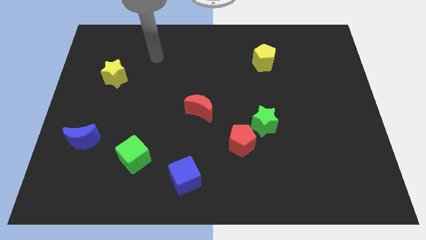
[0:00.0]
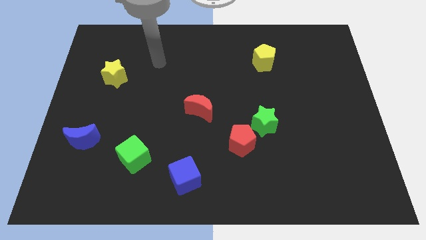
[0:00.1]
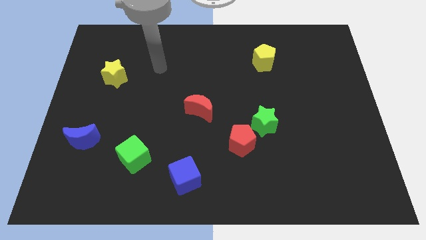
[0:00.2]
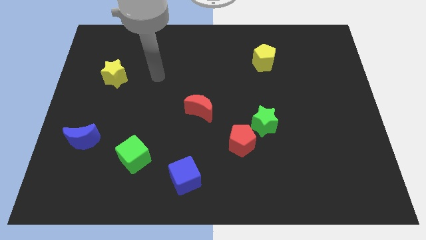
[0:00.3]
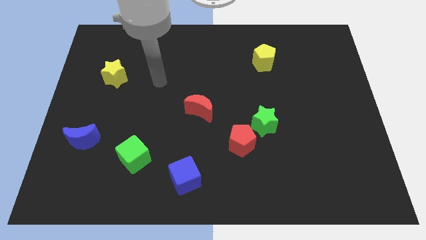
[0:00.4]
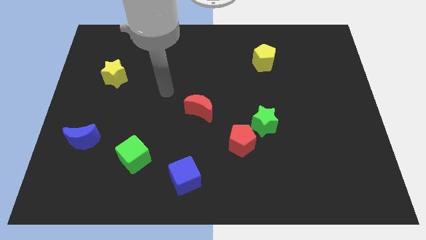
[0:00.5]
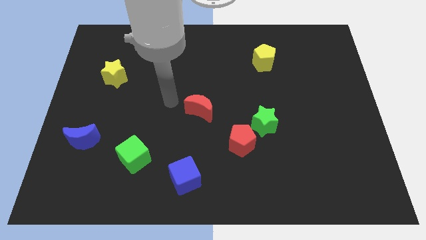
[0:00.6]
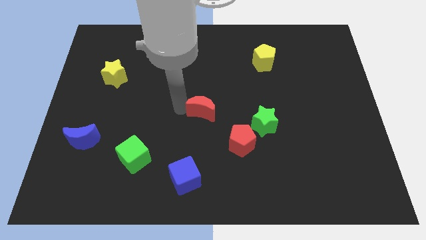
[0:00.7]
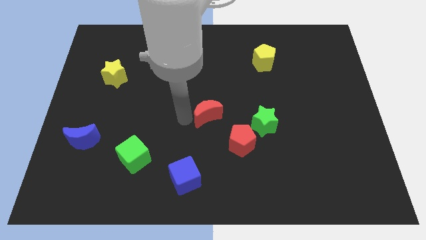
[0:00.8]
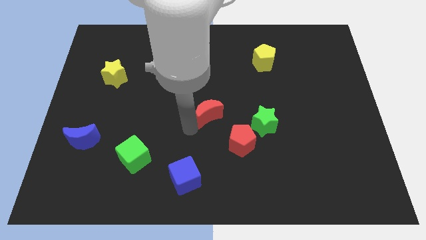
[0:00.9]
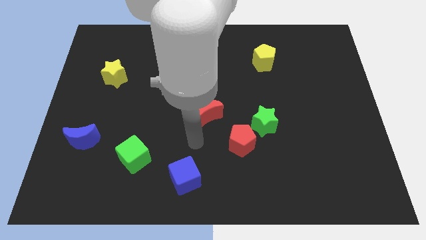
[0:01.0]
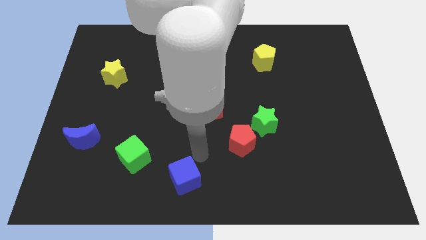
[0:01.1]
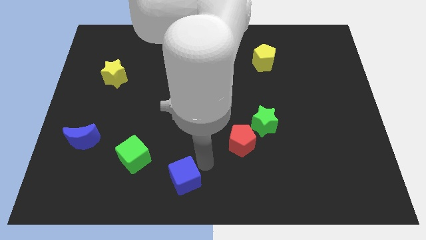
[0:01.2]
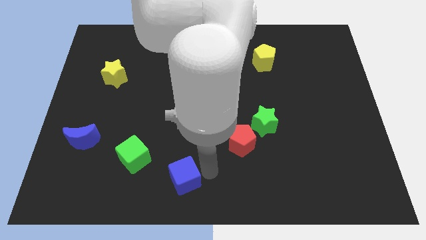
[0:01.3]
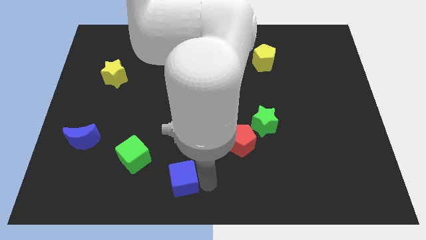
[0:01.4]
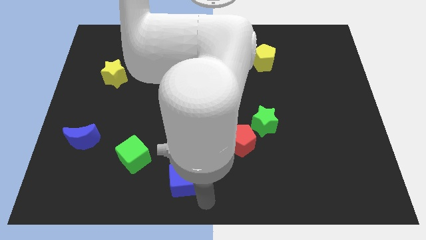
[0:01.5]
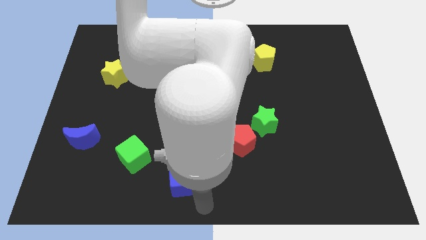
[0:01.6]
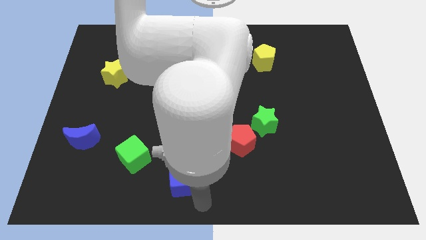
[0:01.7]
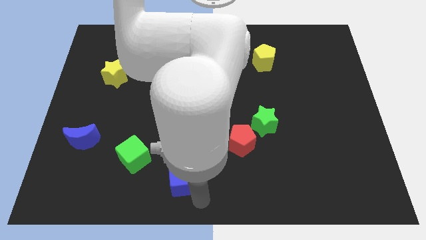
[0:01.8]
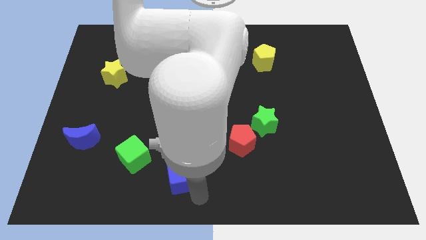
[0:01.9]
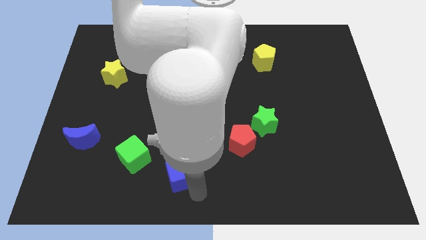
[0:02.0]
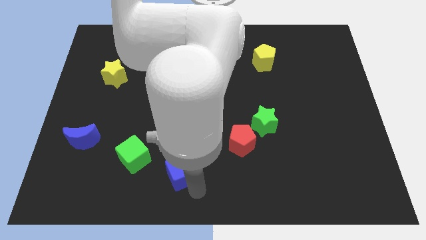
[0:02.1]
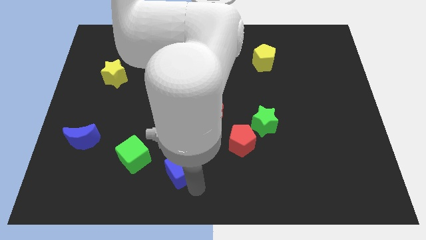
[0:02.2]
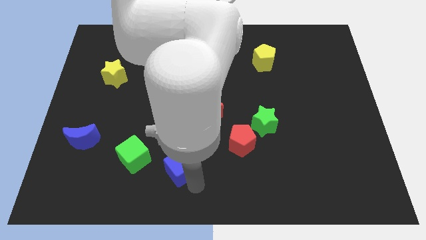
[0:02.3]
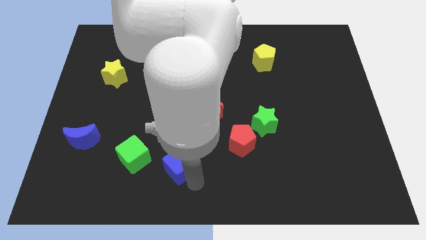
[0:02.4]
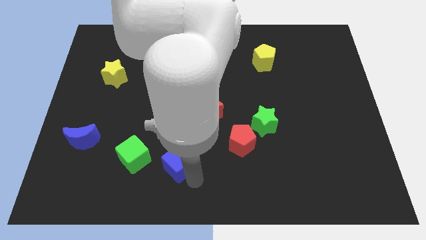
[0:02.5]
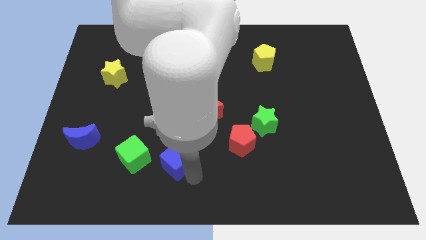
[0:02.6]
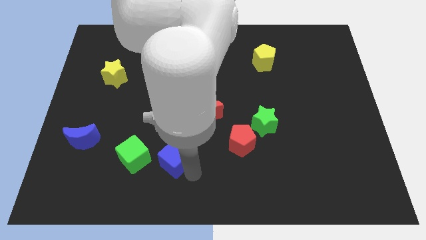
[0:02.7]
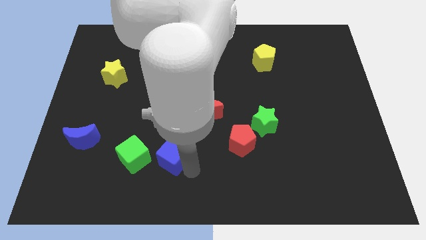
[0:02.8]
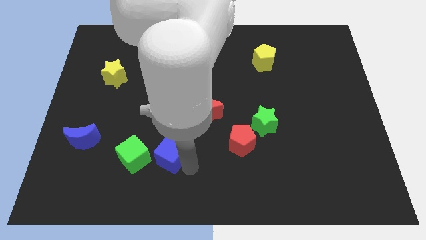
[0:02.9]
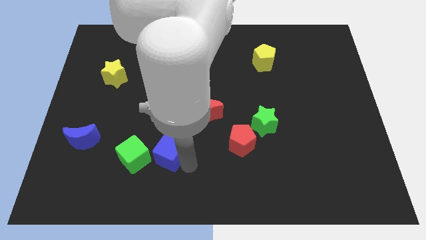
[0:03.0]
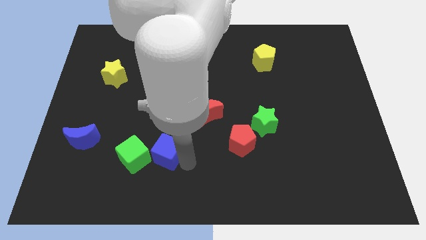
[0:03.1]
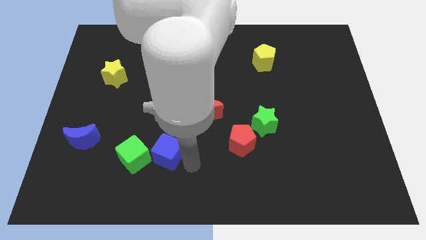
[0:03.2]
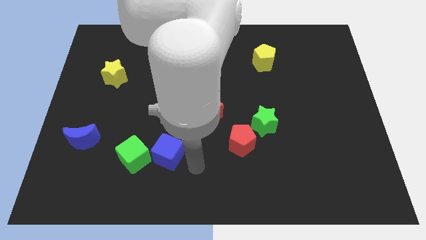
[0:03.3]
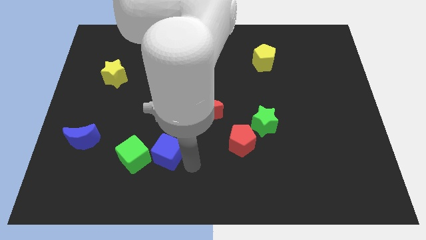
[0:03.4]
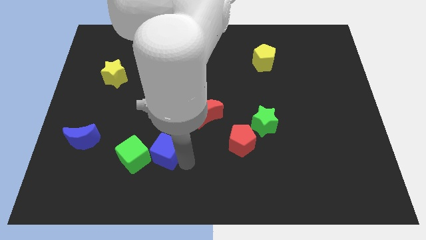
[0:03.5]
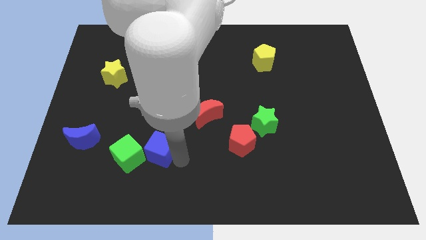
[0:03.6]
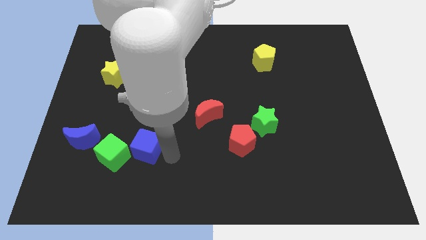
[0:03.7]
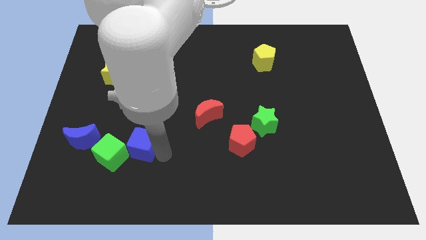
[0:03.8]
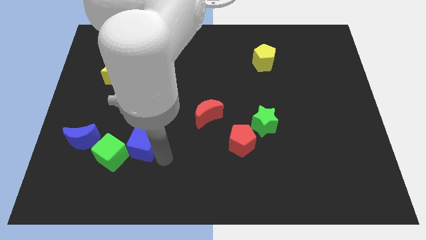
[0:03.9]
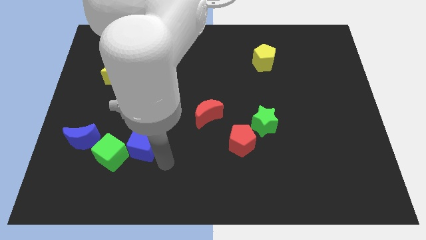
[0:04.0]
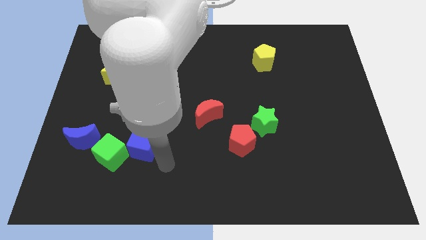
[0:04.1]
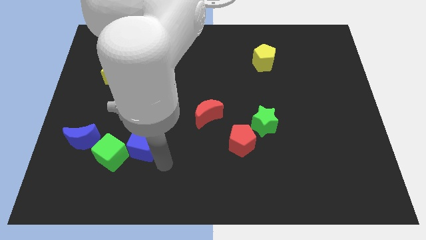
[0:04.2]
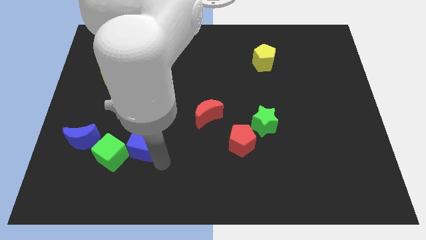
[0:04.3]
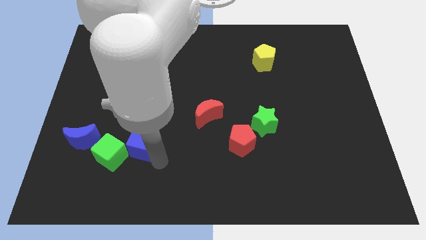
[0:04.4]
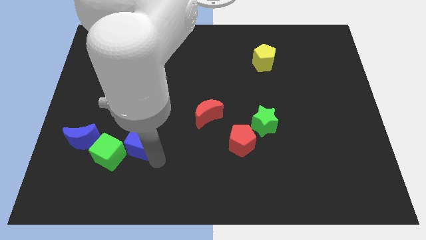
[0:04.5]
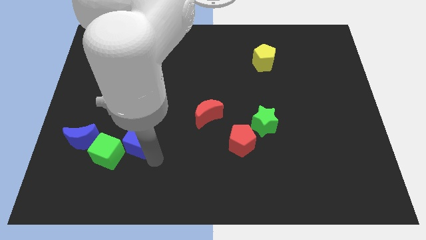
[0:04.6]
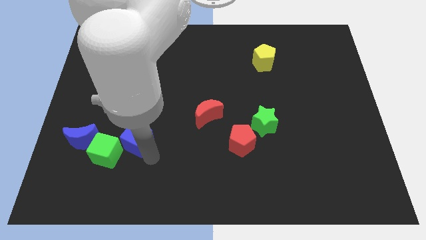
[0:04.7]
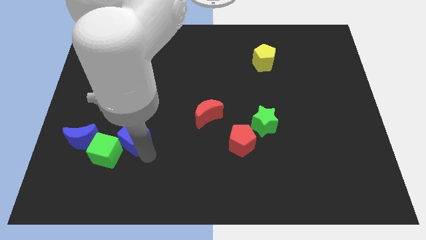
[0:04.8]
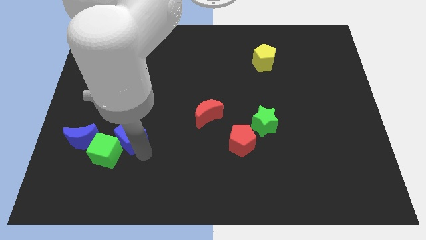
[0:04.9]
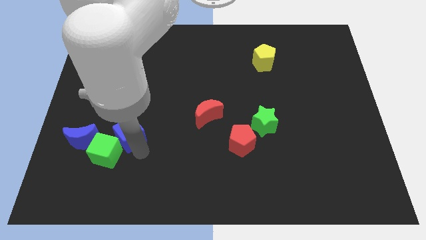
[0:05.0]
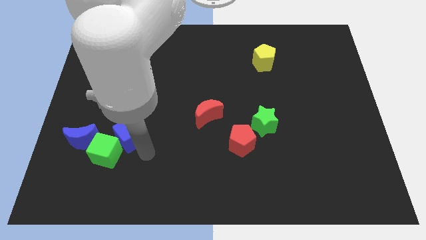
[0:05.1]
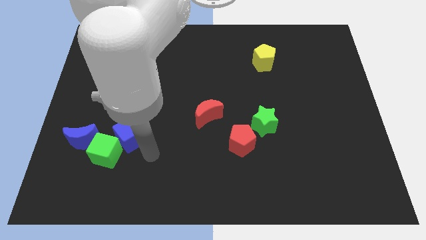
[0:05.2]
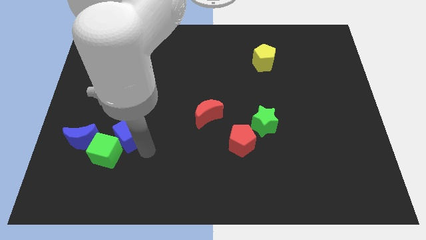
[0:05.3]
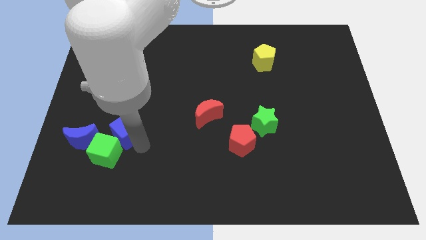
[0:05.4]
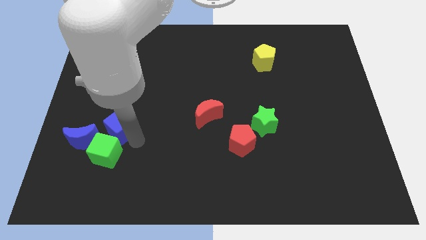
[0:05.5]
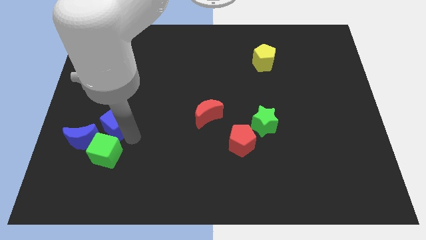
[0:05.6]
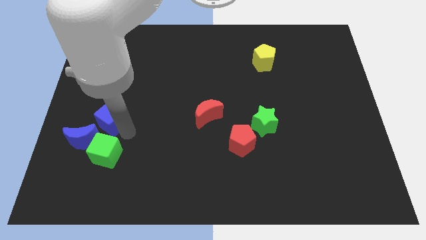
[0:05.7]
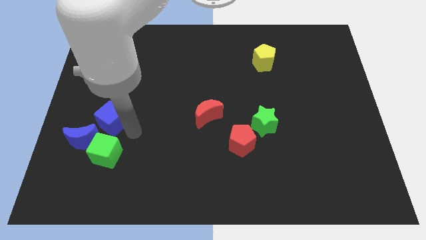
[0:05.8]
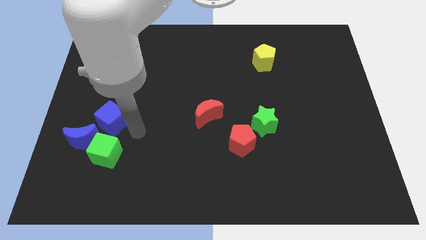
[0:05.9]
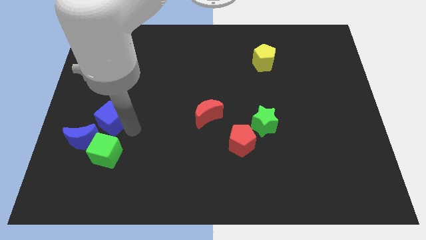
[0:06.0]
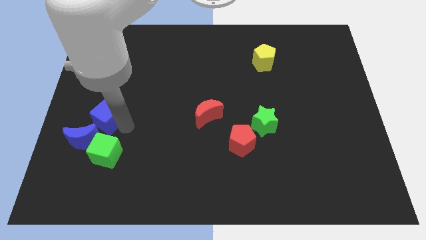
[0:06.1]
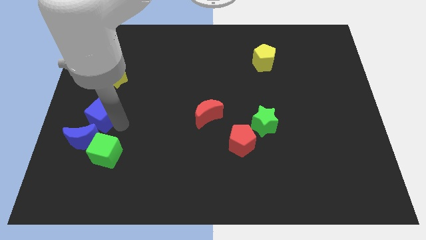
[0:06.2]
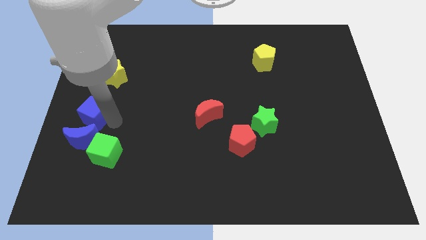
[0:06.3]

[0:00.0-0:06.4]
move the blue cube to the left side of the board
